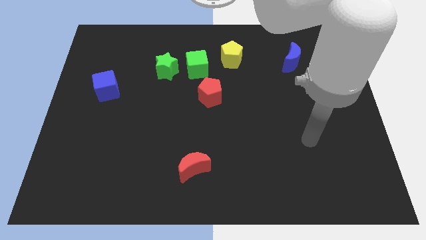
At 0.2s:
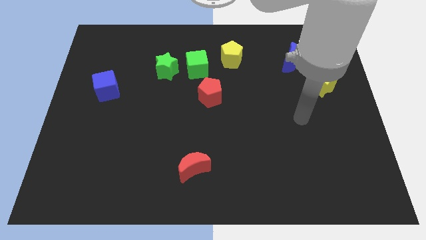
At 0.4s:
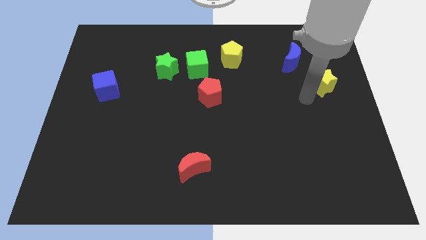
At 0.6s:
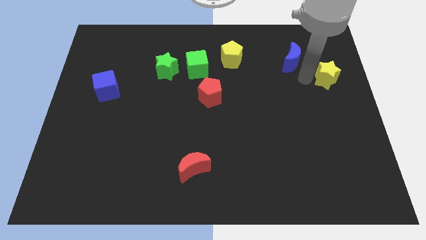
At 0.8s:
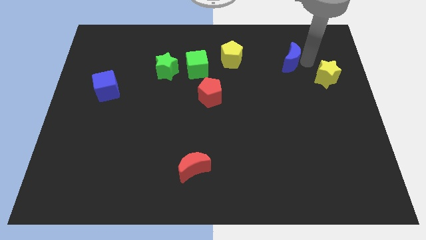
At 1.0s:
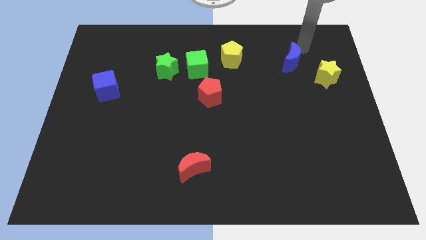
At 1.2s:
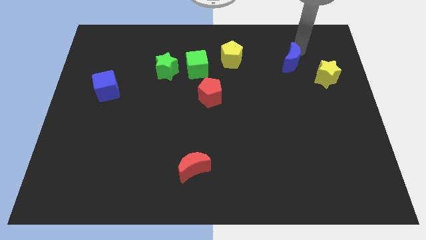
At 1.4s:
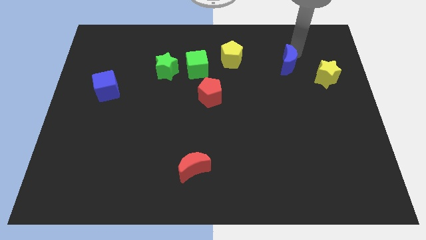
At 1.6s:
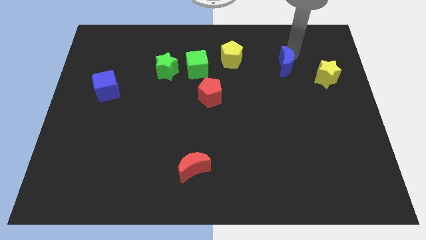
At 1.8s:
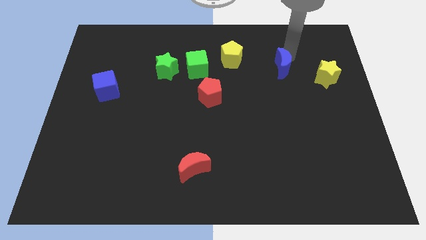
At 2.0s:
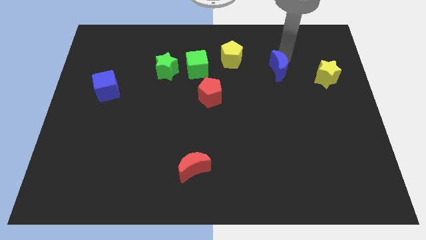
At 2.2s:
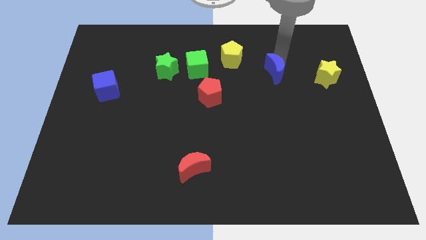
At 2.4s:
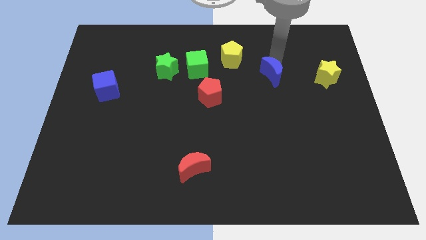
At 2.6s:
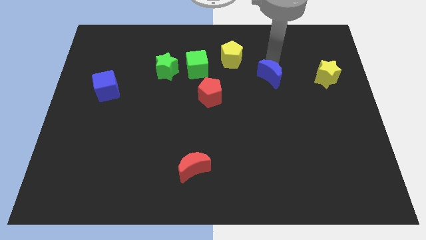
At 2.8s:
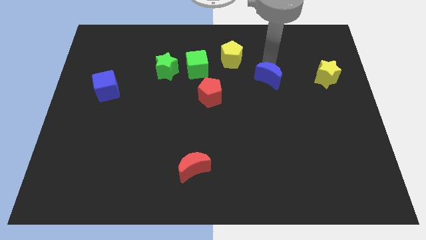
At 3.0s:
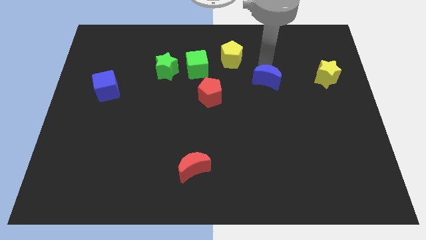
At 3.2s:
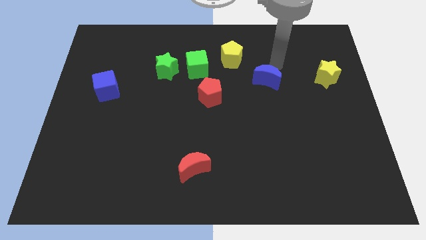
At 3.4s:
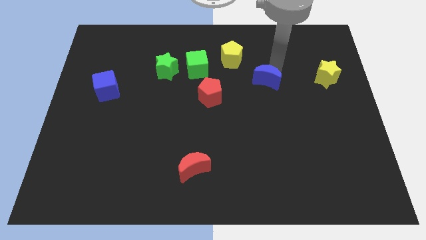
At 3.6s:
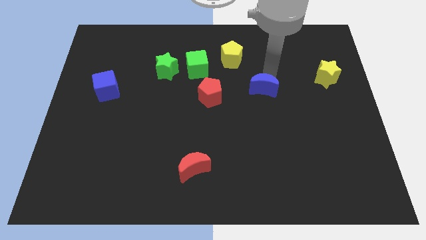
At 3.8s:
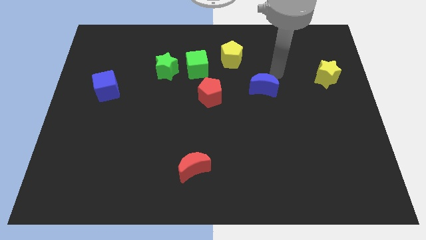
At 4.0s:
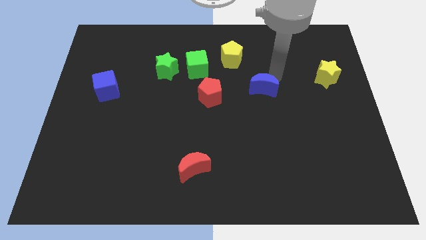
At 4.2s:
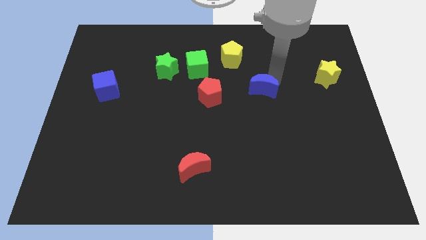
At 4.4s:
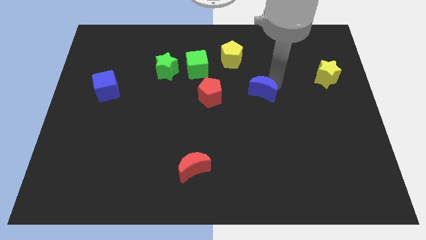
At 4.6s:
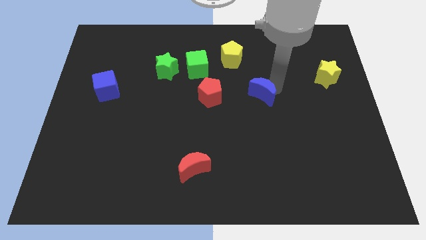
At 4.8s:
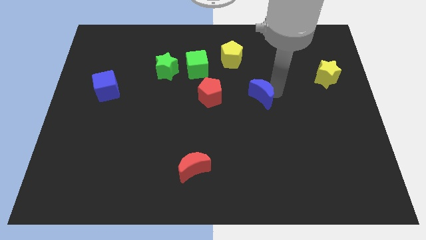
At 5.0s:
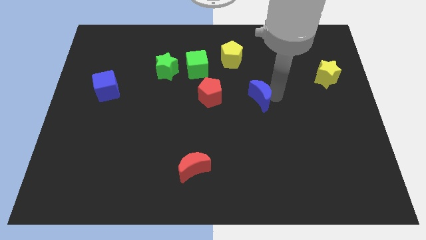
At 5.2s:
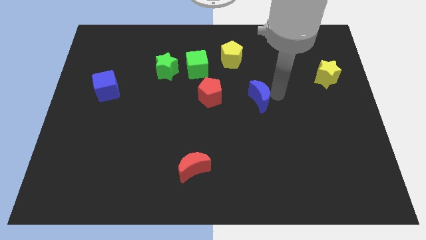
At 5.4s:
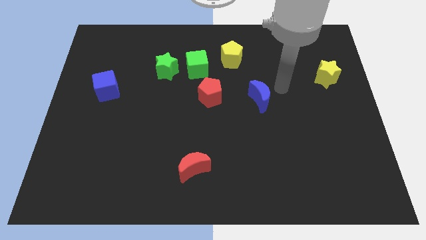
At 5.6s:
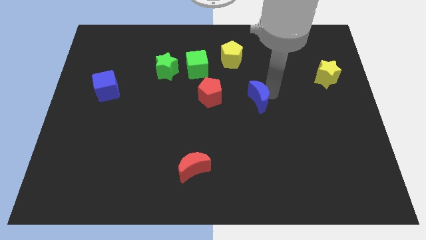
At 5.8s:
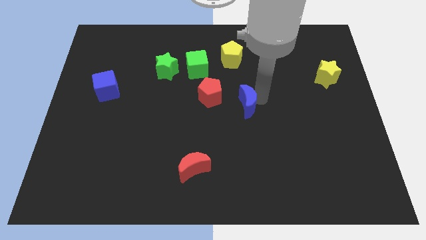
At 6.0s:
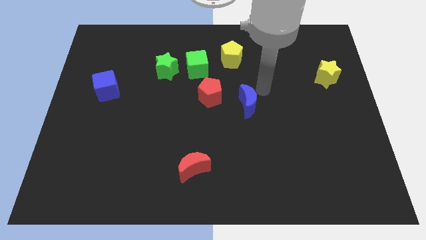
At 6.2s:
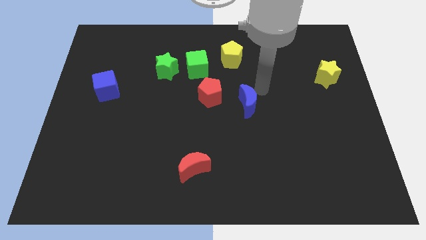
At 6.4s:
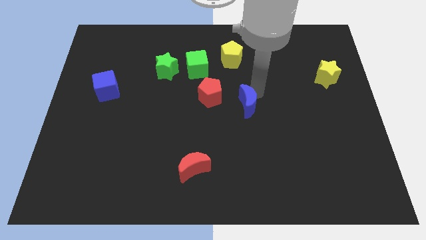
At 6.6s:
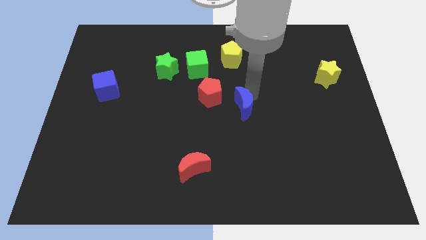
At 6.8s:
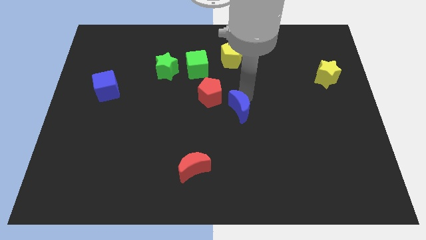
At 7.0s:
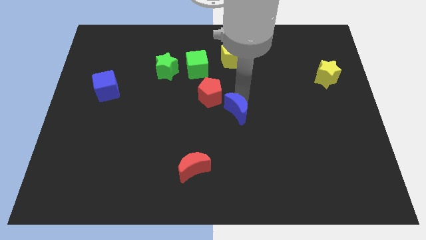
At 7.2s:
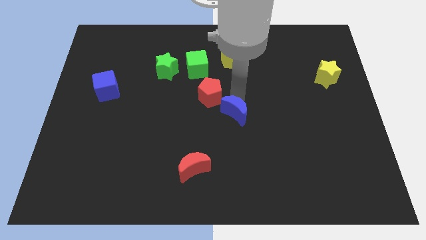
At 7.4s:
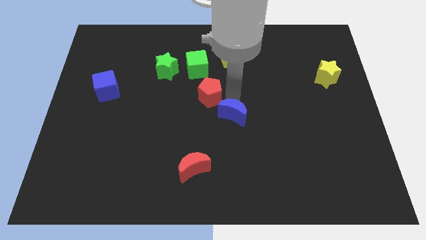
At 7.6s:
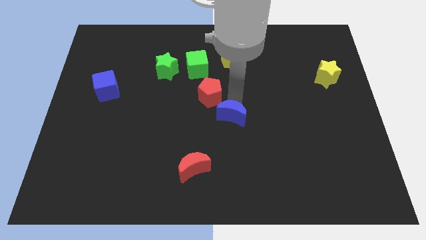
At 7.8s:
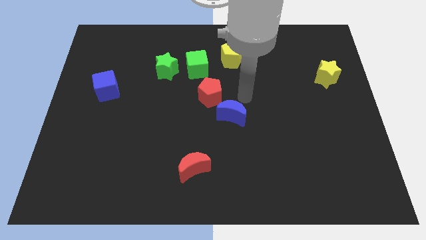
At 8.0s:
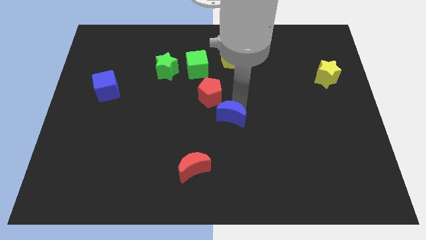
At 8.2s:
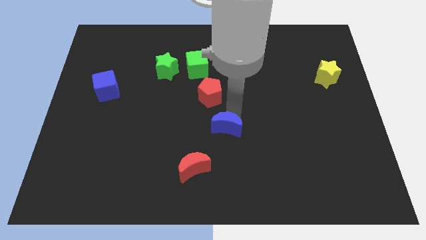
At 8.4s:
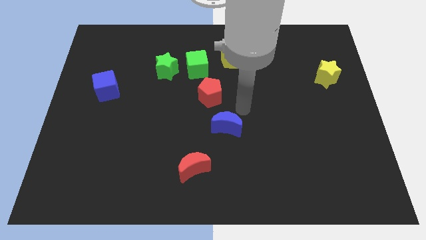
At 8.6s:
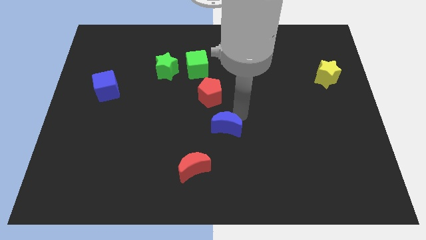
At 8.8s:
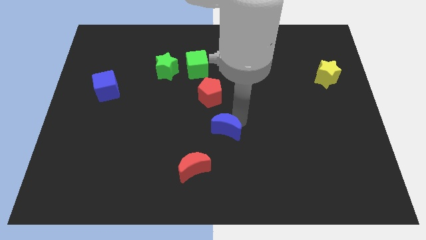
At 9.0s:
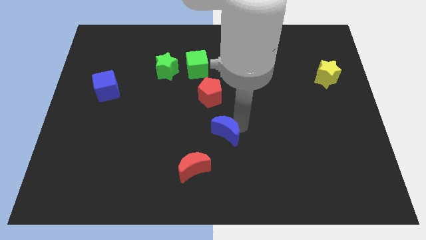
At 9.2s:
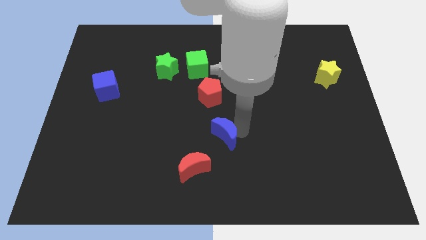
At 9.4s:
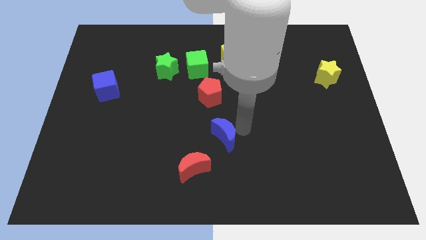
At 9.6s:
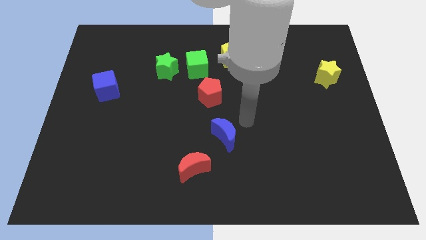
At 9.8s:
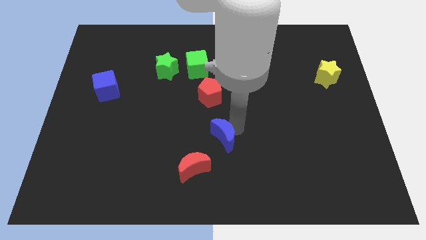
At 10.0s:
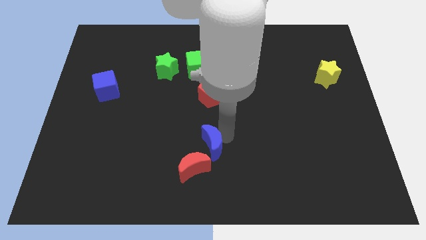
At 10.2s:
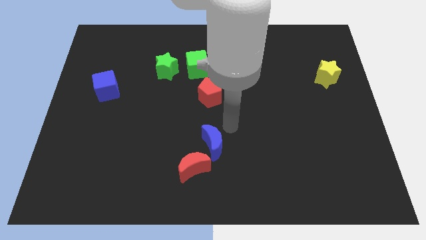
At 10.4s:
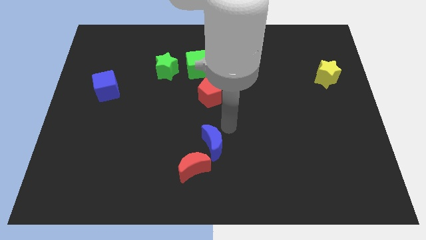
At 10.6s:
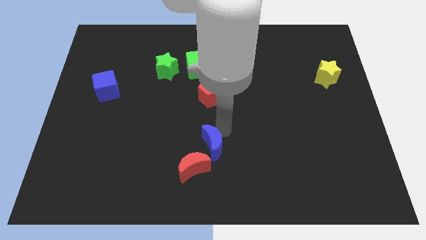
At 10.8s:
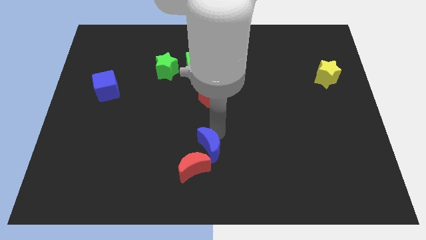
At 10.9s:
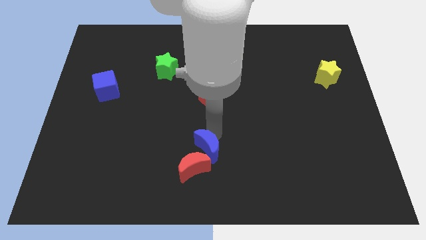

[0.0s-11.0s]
push the blue moon next to the red moon

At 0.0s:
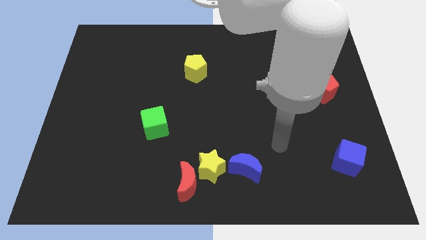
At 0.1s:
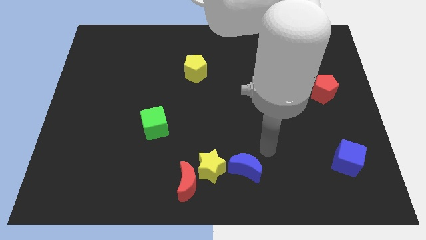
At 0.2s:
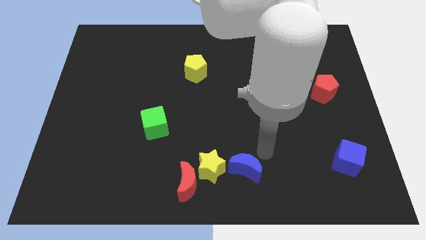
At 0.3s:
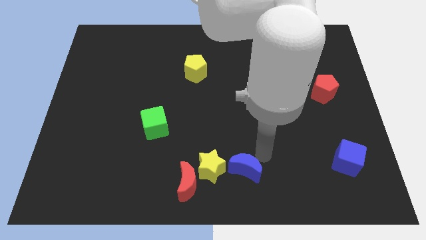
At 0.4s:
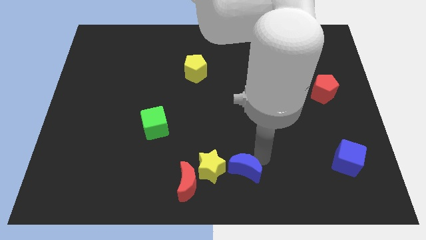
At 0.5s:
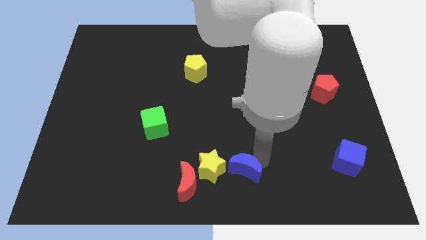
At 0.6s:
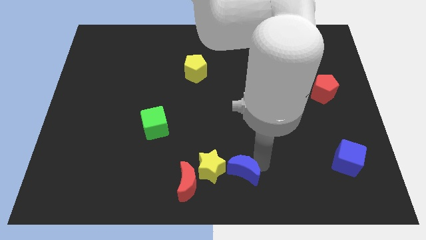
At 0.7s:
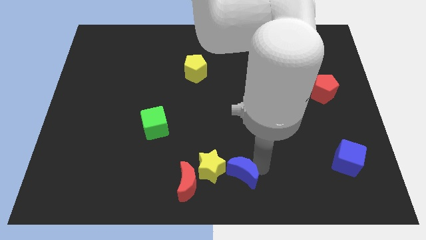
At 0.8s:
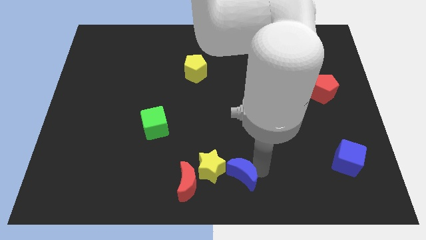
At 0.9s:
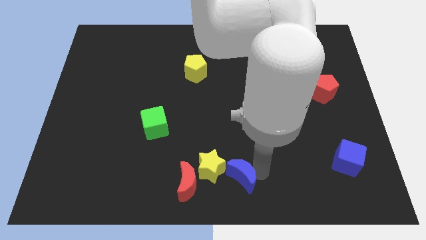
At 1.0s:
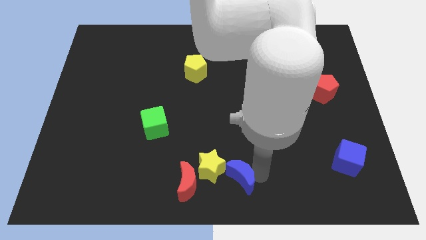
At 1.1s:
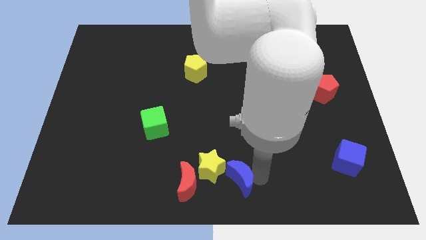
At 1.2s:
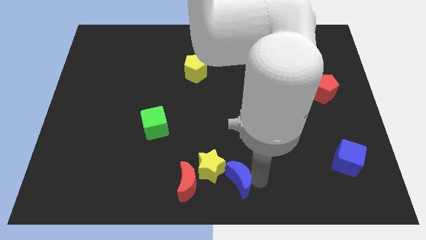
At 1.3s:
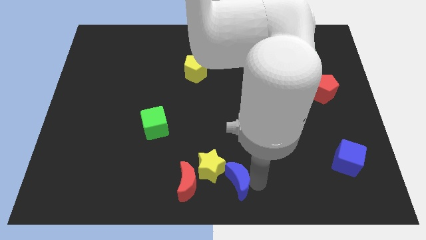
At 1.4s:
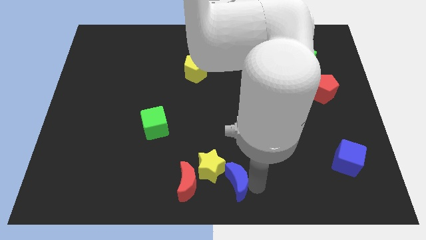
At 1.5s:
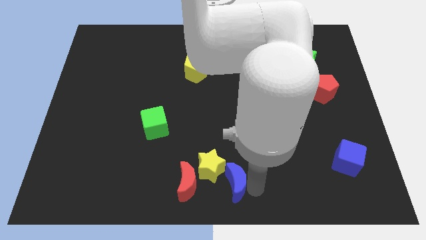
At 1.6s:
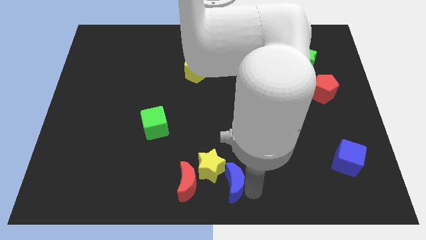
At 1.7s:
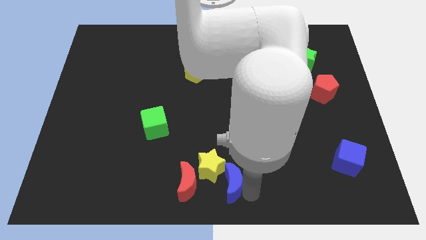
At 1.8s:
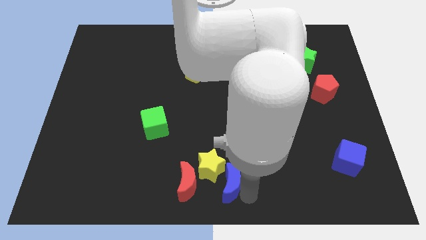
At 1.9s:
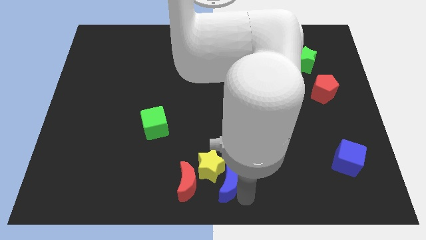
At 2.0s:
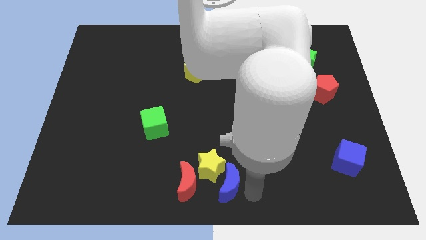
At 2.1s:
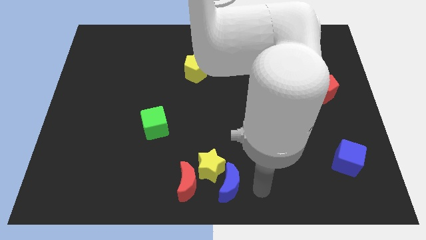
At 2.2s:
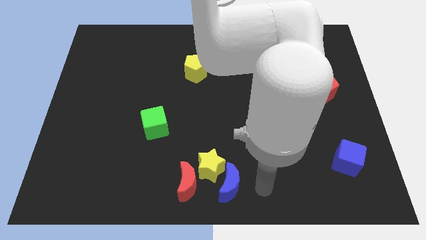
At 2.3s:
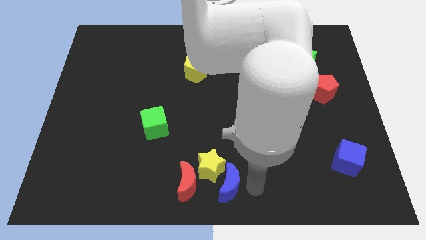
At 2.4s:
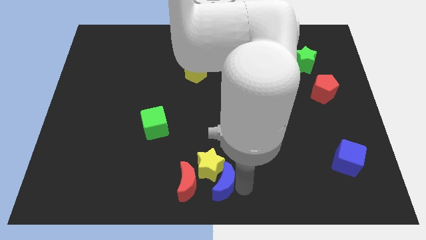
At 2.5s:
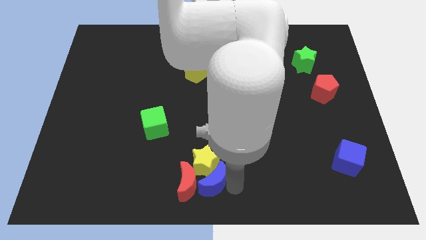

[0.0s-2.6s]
put the blue moon close to the red moon
